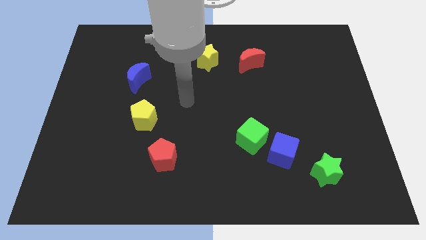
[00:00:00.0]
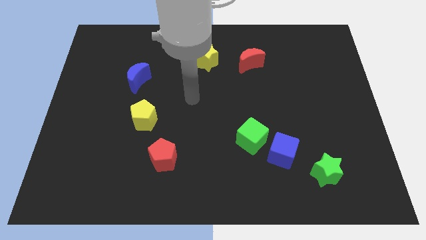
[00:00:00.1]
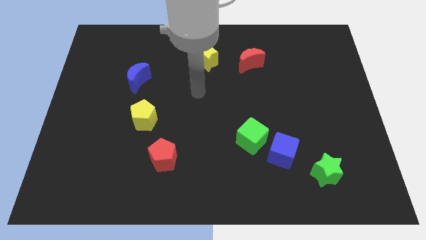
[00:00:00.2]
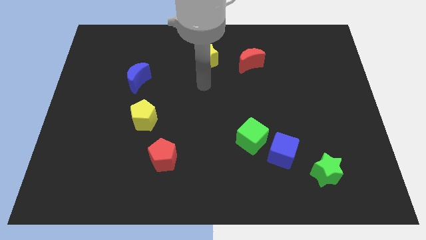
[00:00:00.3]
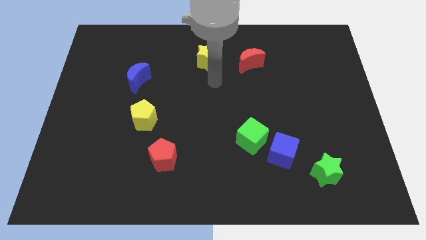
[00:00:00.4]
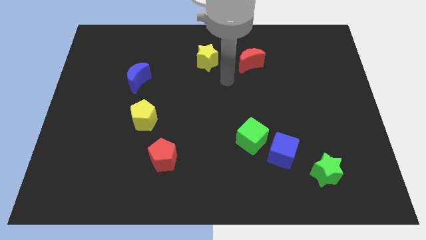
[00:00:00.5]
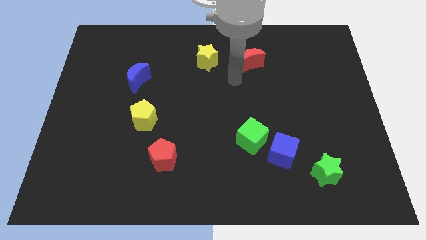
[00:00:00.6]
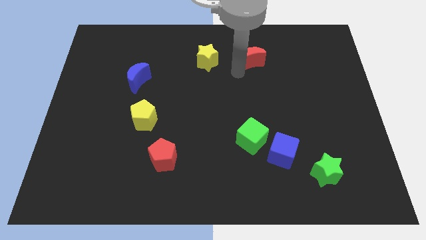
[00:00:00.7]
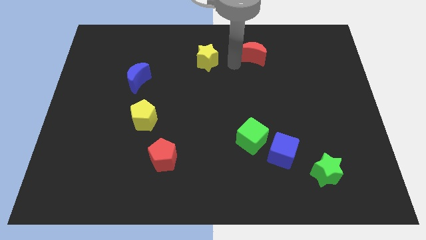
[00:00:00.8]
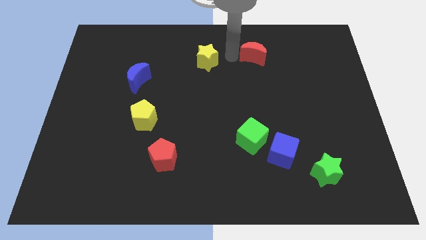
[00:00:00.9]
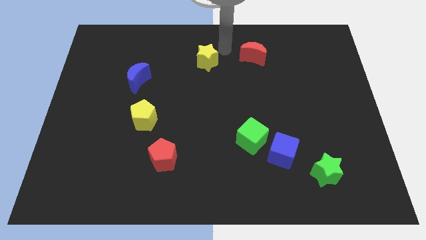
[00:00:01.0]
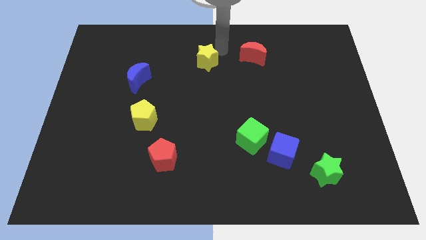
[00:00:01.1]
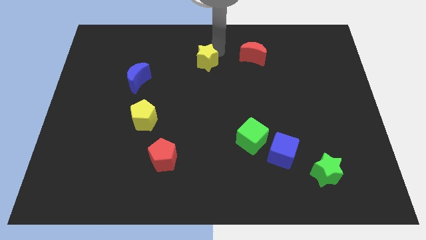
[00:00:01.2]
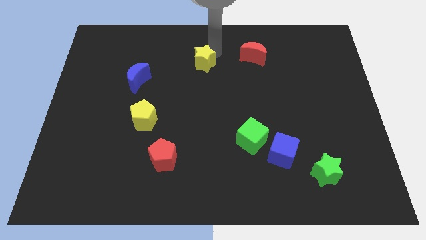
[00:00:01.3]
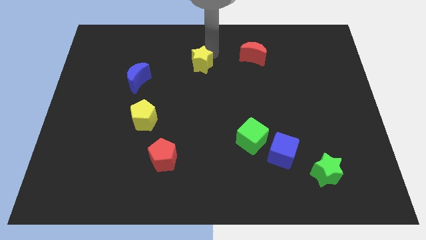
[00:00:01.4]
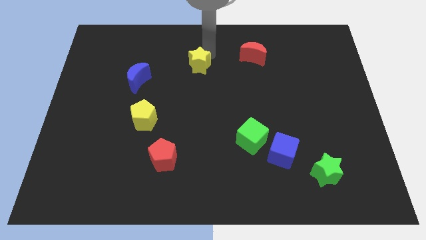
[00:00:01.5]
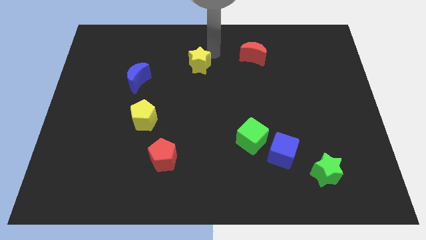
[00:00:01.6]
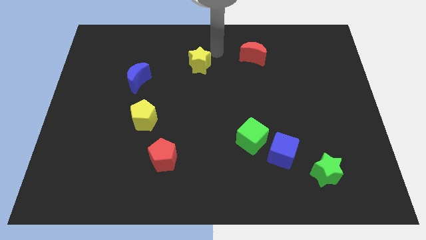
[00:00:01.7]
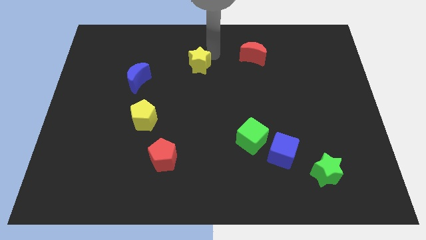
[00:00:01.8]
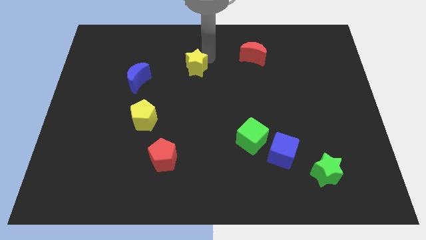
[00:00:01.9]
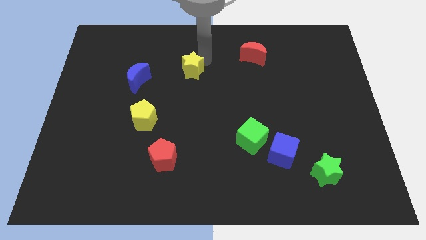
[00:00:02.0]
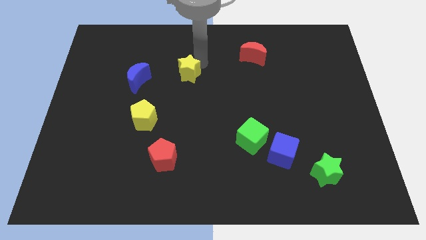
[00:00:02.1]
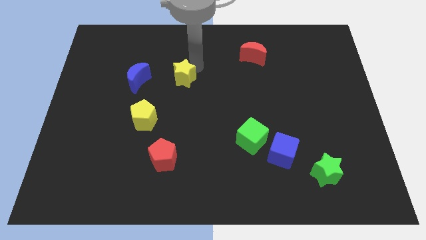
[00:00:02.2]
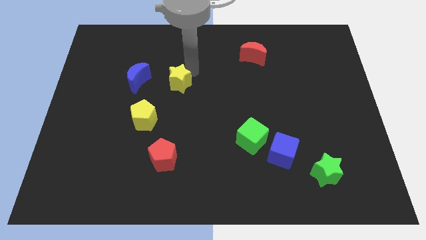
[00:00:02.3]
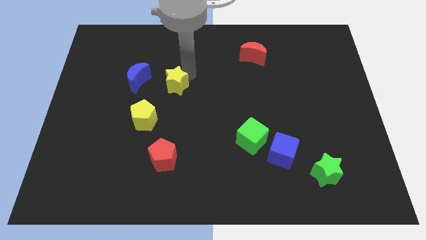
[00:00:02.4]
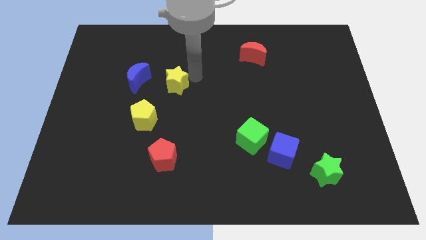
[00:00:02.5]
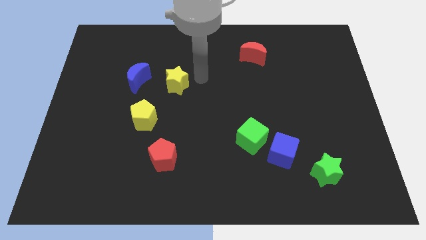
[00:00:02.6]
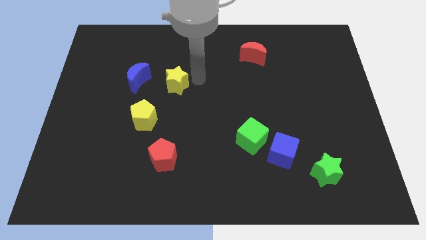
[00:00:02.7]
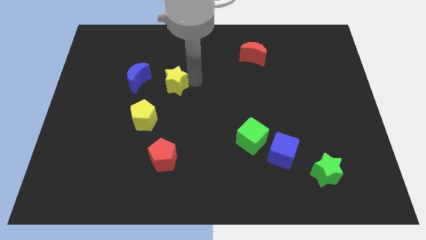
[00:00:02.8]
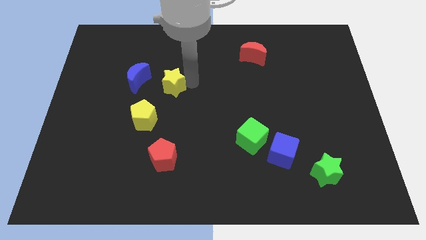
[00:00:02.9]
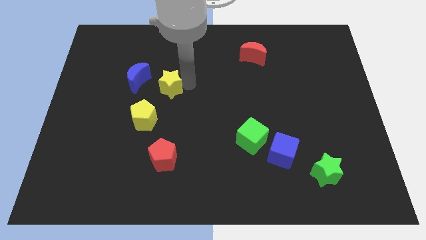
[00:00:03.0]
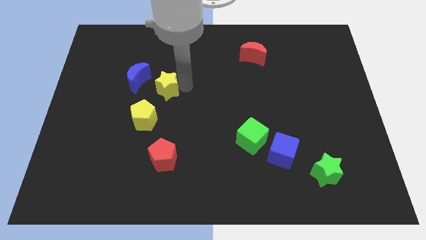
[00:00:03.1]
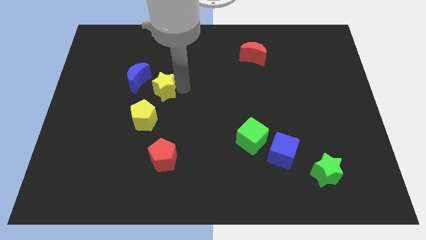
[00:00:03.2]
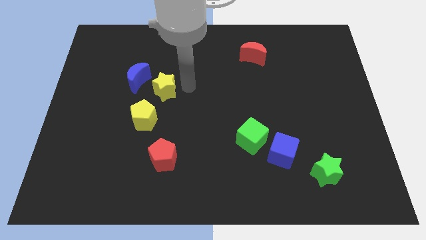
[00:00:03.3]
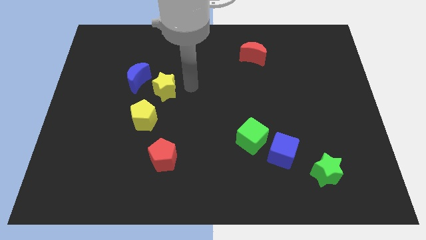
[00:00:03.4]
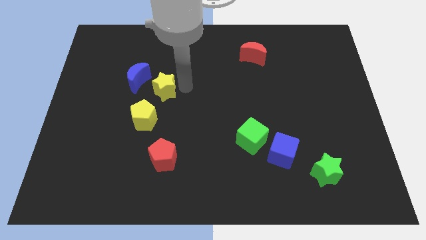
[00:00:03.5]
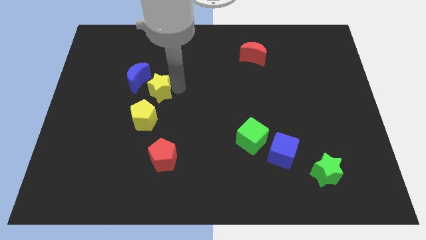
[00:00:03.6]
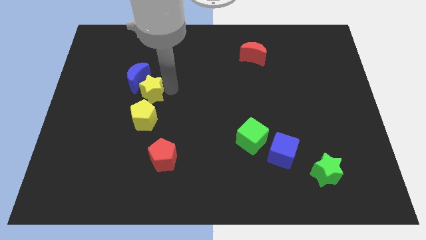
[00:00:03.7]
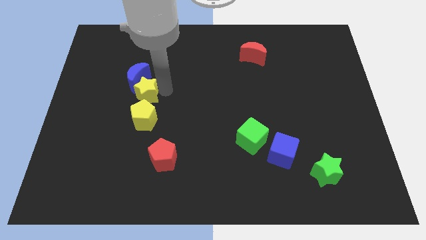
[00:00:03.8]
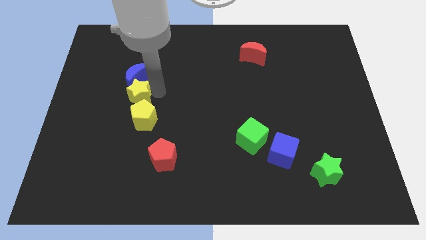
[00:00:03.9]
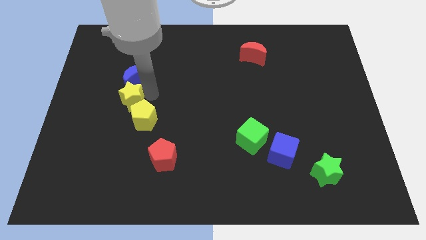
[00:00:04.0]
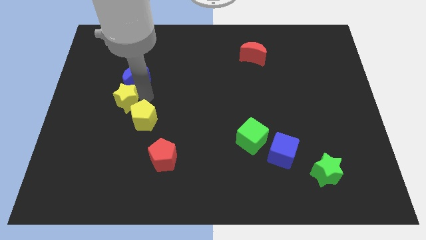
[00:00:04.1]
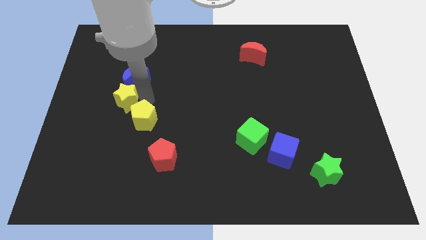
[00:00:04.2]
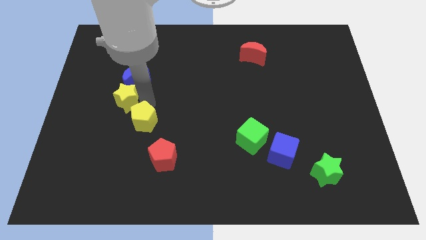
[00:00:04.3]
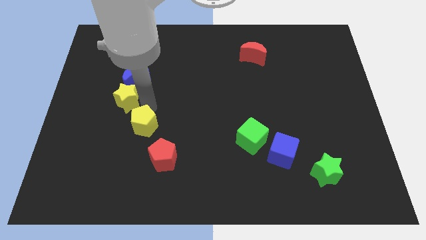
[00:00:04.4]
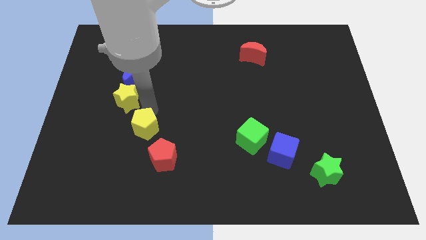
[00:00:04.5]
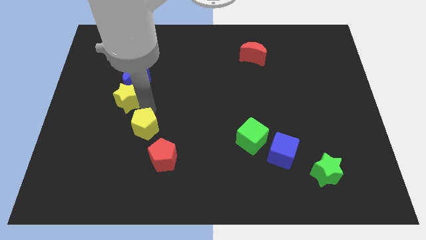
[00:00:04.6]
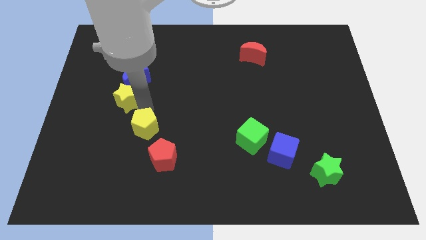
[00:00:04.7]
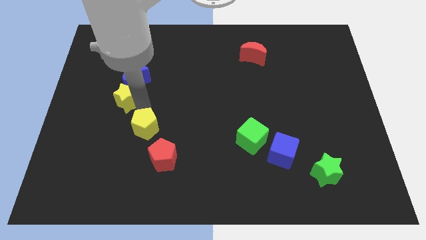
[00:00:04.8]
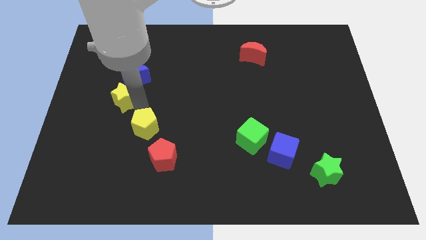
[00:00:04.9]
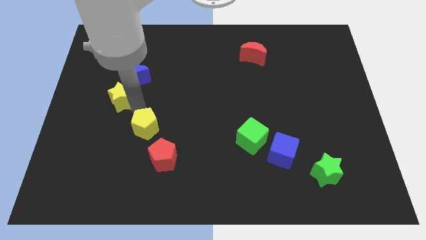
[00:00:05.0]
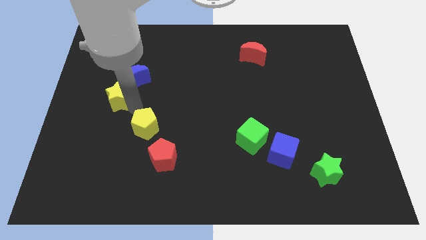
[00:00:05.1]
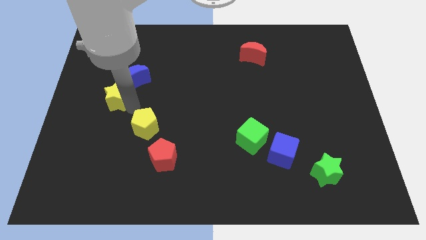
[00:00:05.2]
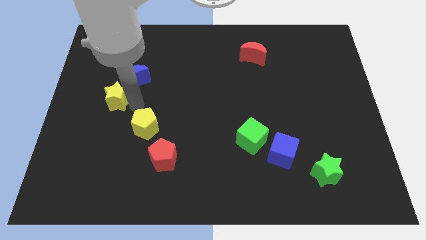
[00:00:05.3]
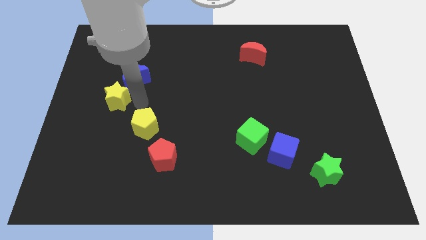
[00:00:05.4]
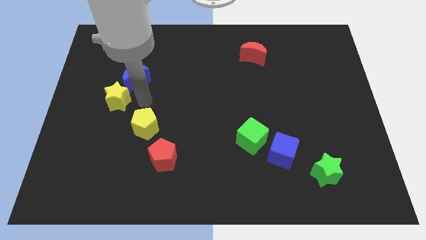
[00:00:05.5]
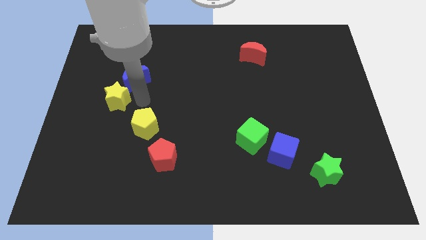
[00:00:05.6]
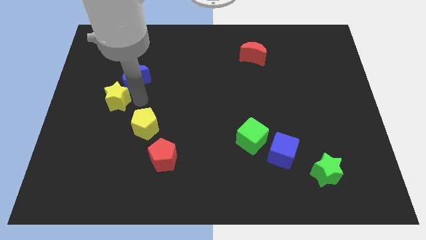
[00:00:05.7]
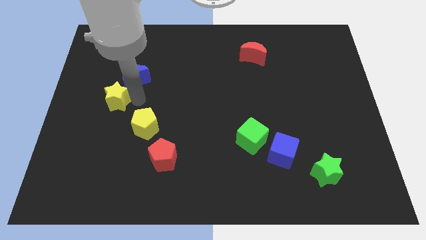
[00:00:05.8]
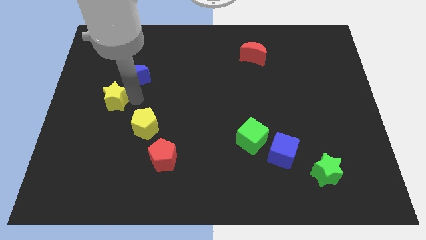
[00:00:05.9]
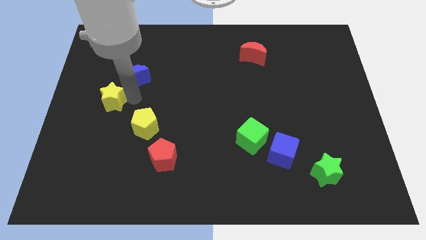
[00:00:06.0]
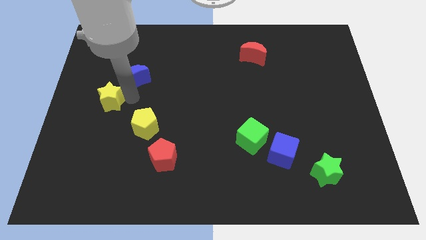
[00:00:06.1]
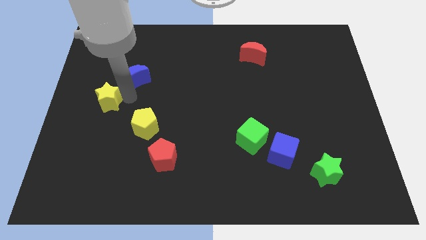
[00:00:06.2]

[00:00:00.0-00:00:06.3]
move the yellow star to the center left
